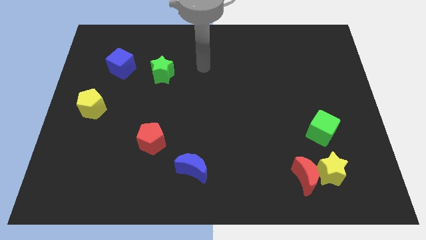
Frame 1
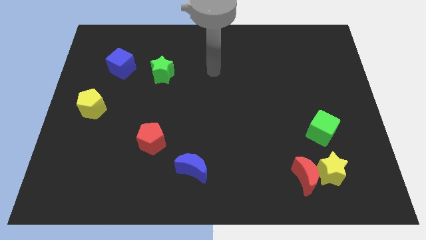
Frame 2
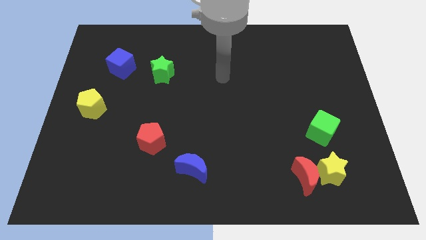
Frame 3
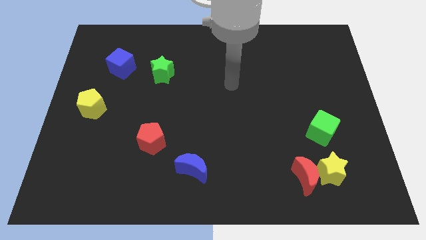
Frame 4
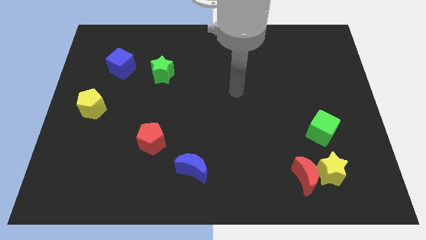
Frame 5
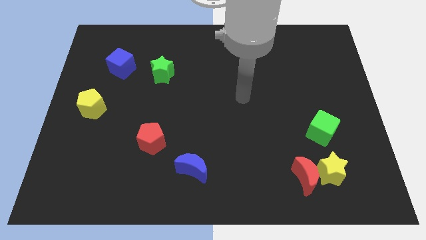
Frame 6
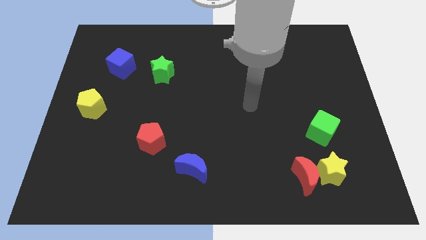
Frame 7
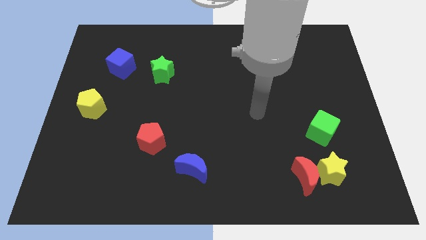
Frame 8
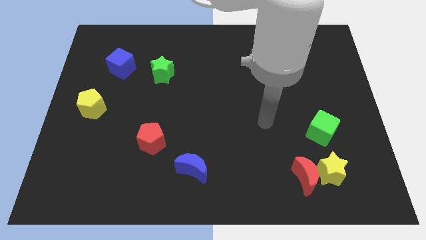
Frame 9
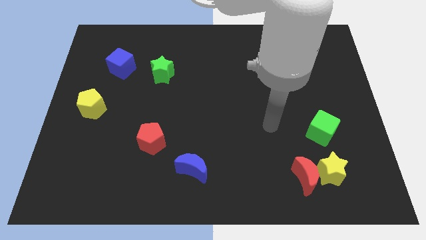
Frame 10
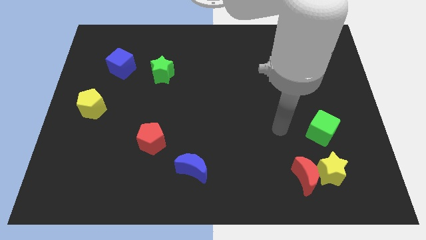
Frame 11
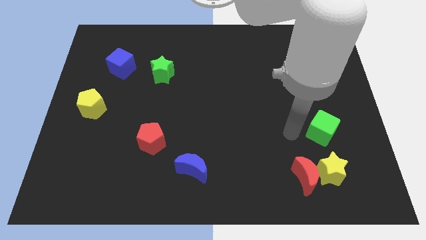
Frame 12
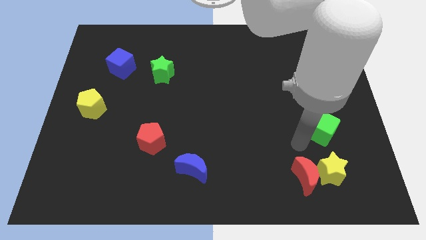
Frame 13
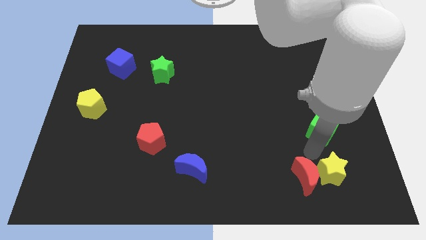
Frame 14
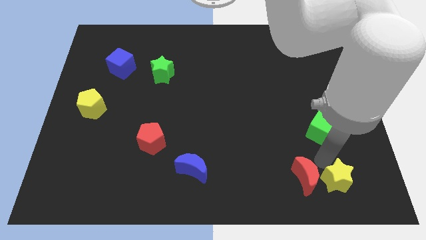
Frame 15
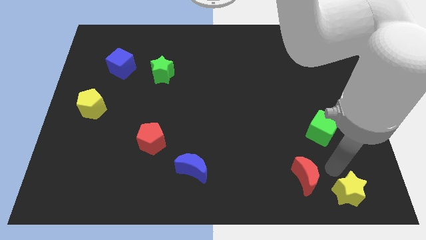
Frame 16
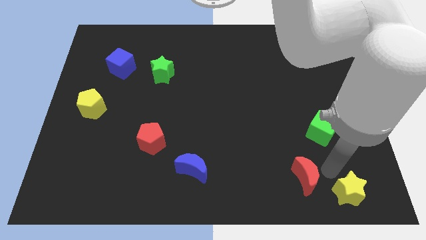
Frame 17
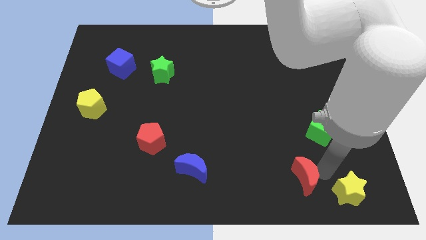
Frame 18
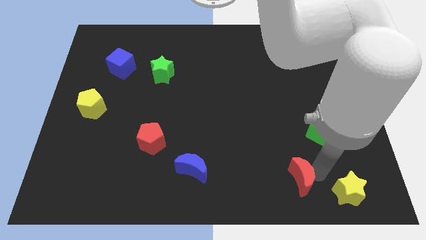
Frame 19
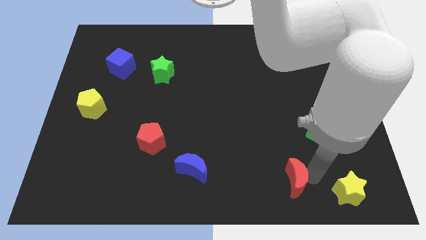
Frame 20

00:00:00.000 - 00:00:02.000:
move the red moon away from the yellow star

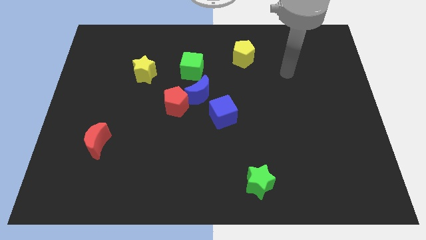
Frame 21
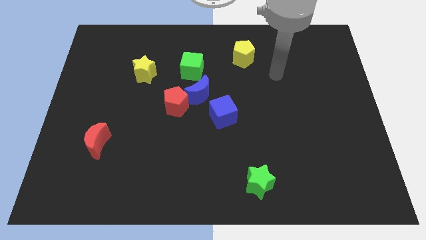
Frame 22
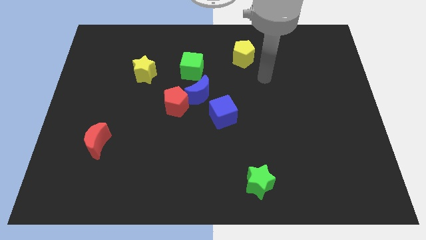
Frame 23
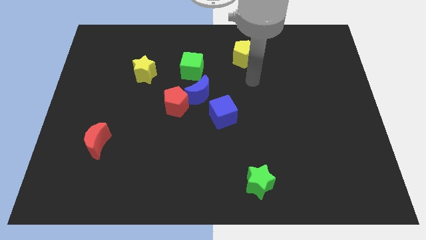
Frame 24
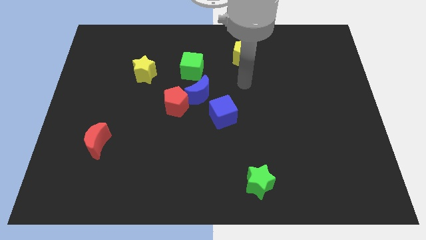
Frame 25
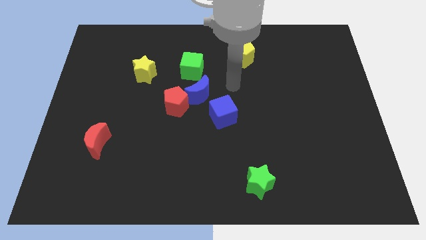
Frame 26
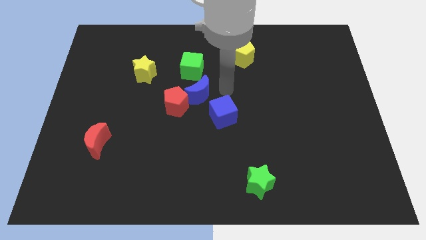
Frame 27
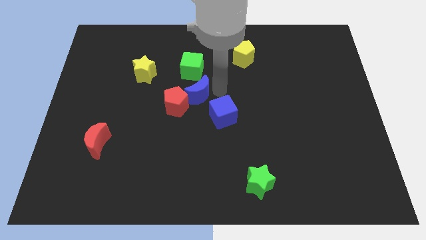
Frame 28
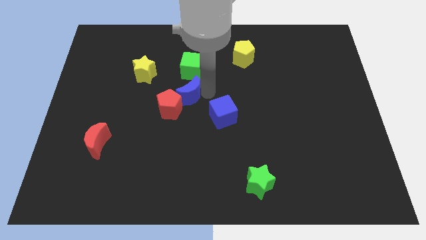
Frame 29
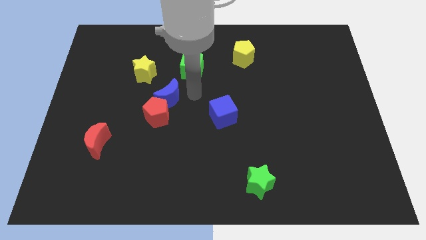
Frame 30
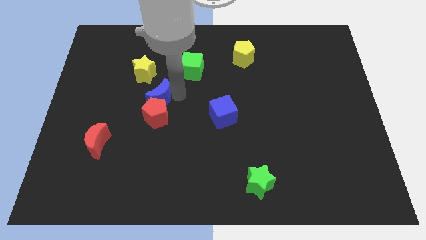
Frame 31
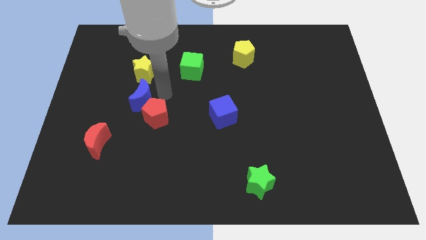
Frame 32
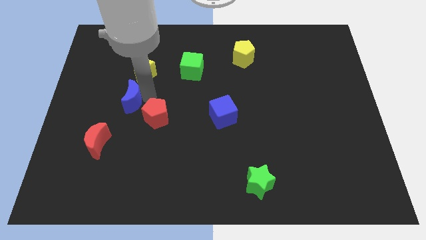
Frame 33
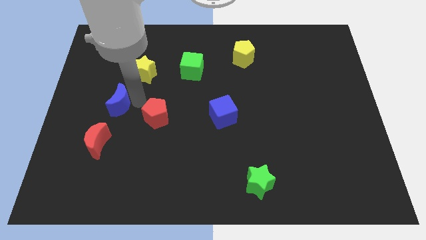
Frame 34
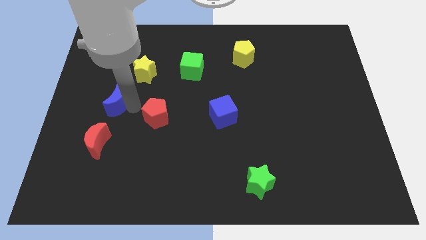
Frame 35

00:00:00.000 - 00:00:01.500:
separate the red pentagon from the blue moon

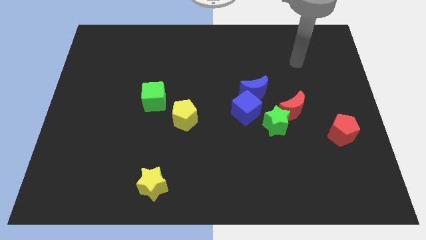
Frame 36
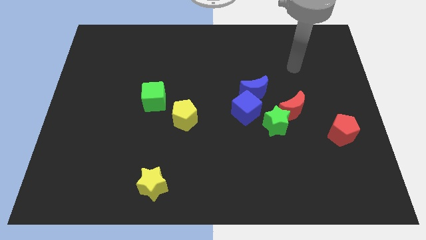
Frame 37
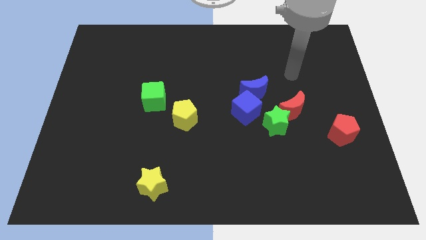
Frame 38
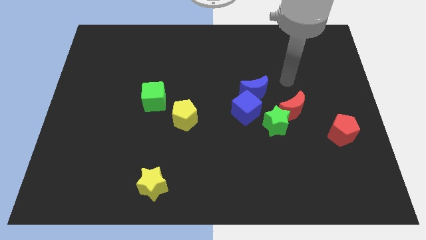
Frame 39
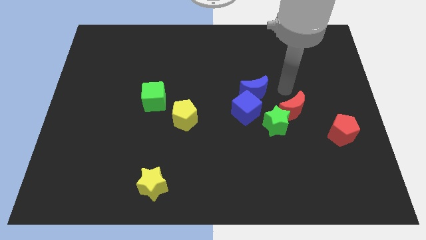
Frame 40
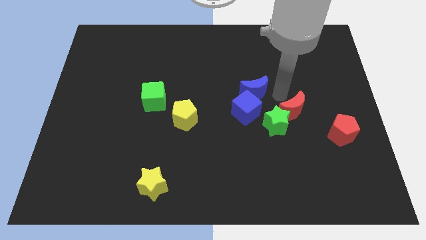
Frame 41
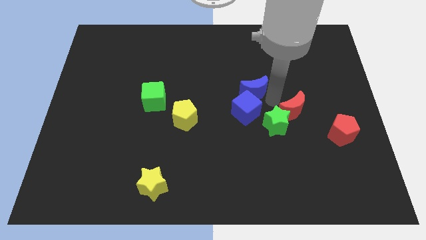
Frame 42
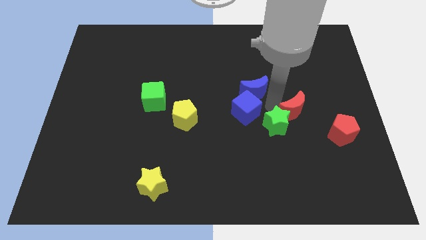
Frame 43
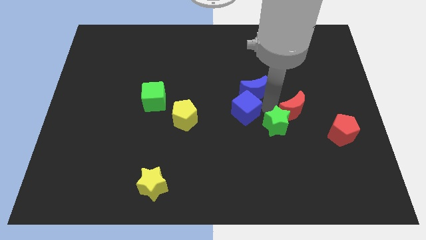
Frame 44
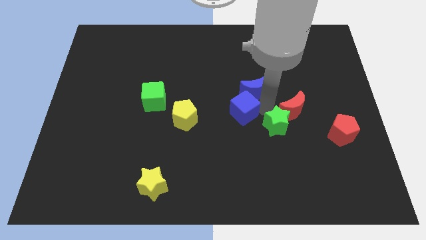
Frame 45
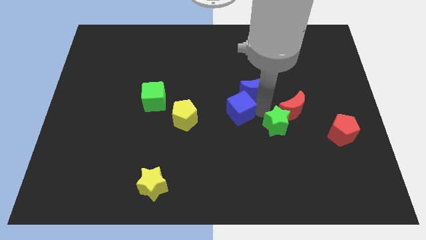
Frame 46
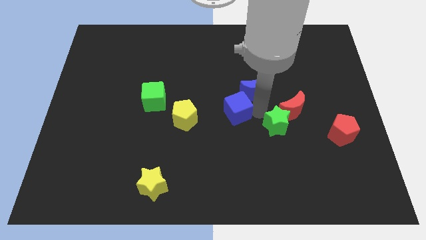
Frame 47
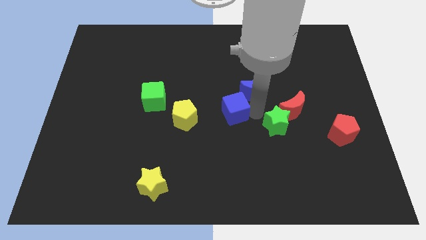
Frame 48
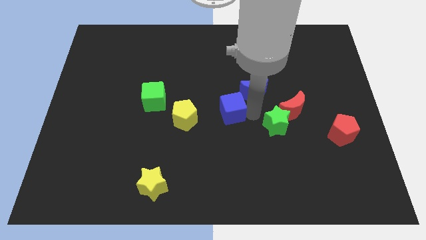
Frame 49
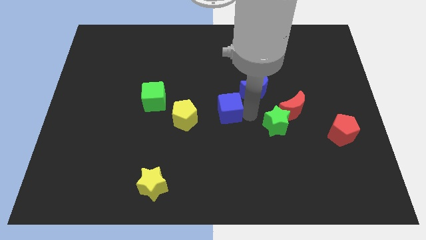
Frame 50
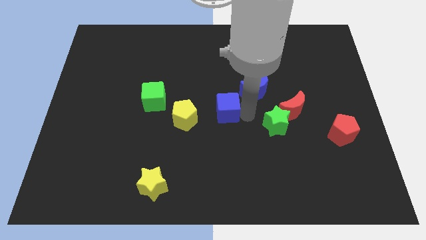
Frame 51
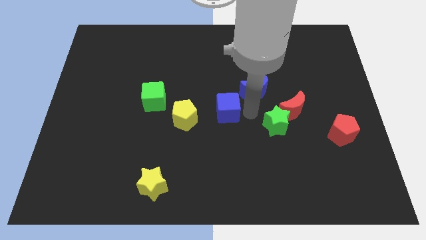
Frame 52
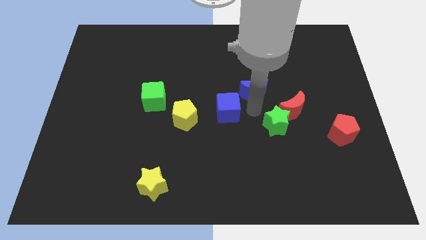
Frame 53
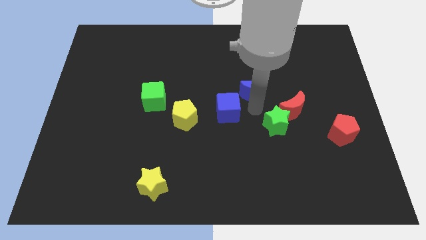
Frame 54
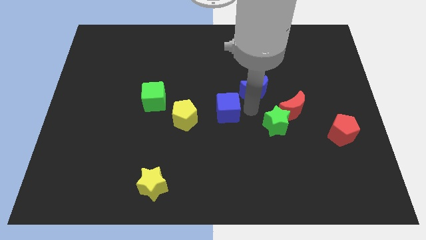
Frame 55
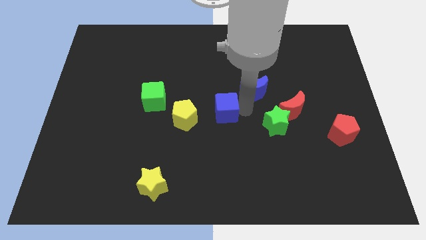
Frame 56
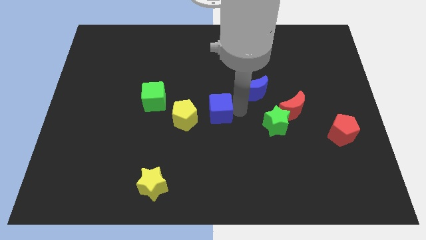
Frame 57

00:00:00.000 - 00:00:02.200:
separate the blue cube from the blue moon and green star

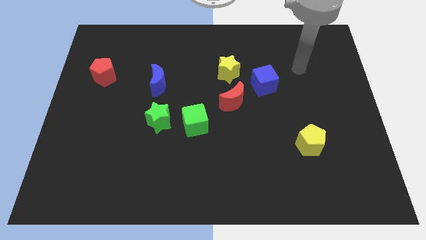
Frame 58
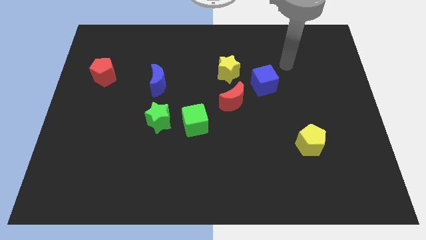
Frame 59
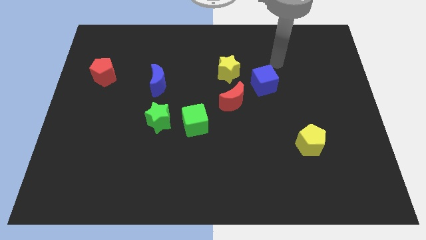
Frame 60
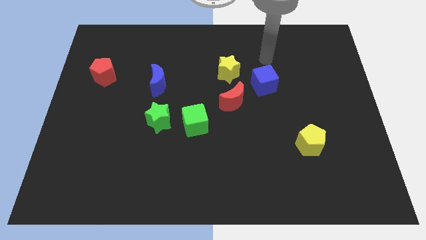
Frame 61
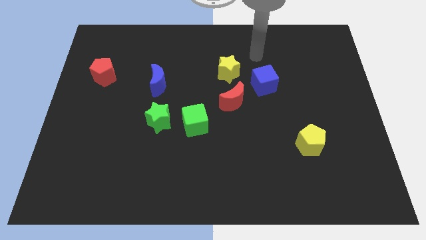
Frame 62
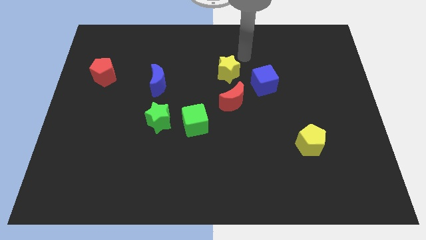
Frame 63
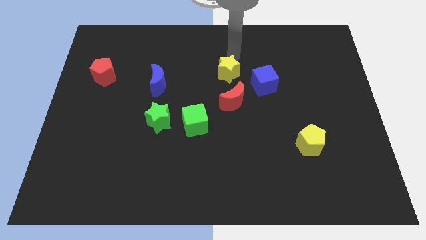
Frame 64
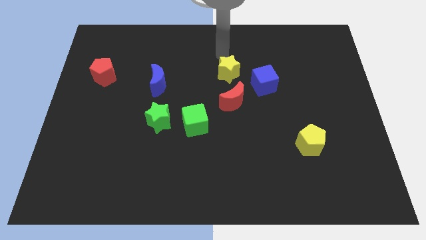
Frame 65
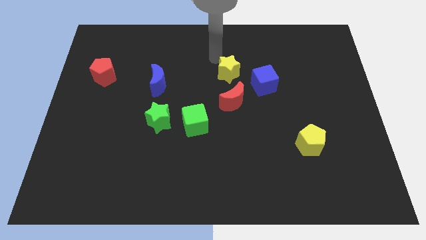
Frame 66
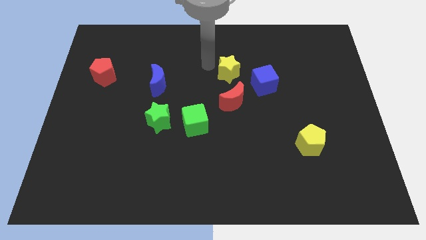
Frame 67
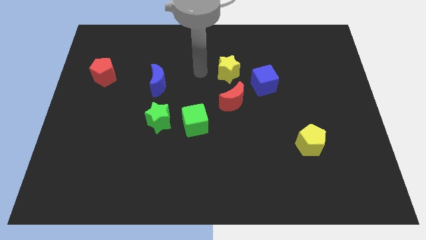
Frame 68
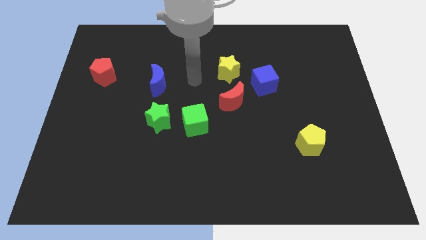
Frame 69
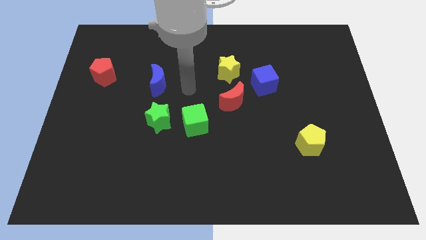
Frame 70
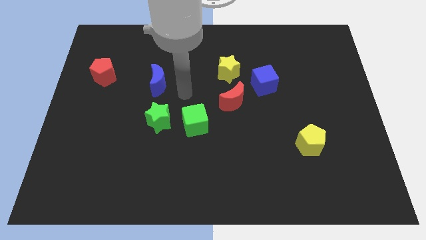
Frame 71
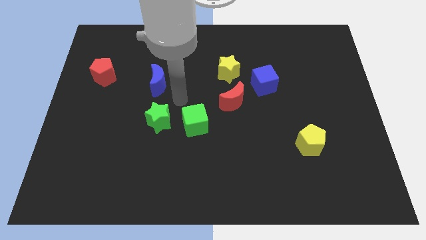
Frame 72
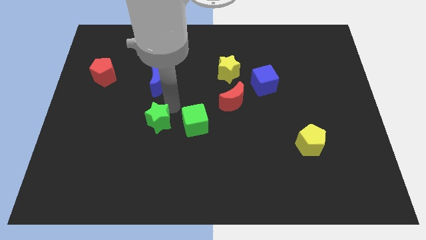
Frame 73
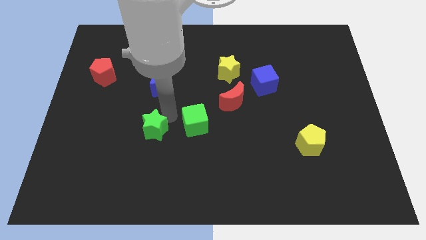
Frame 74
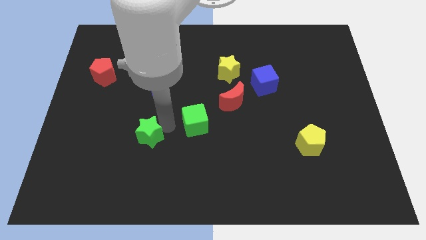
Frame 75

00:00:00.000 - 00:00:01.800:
separate the green cube from the green star

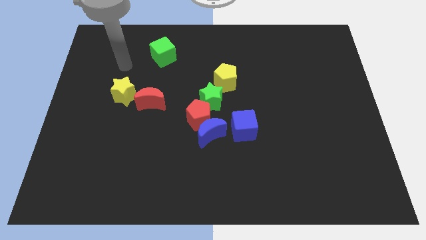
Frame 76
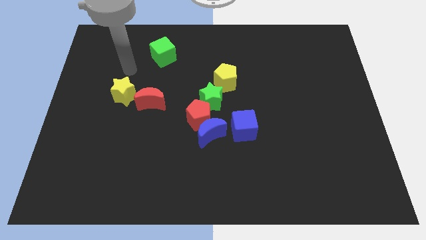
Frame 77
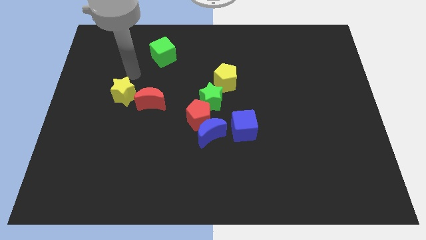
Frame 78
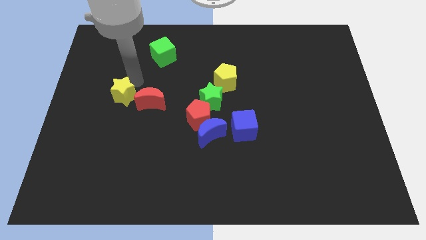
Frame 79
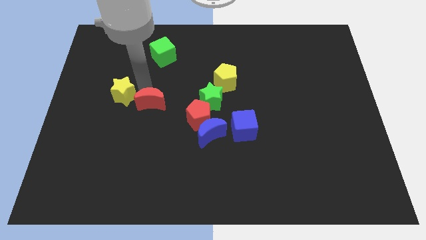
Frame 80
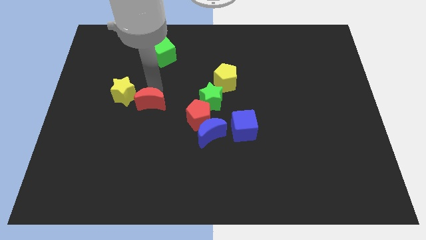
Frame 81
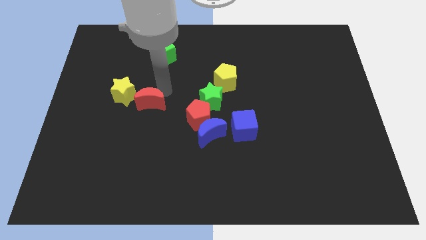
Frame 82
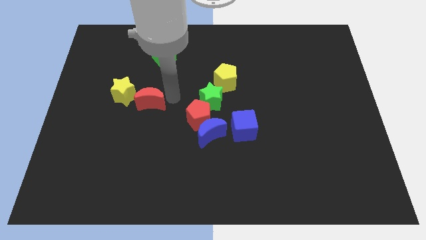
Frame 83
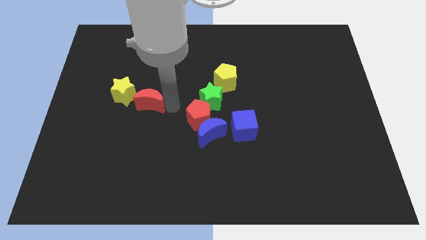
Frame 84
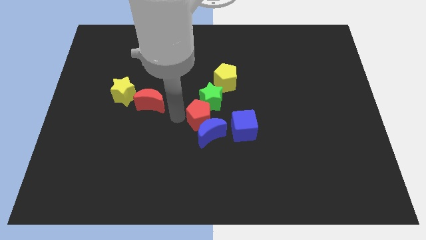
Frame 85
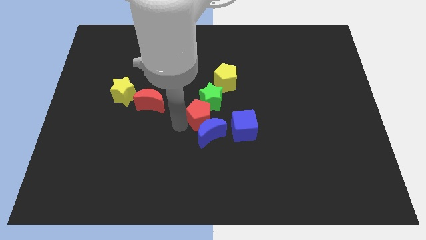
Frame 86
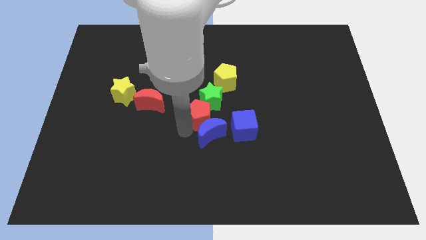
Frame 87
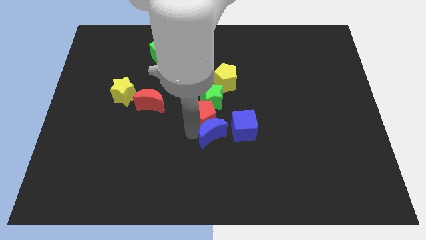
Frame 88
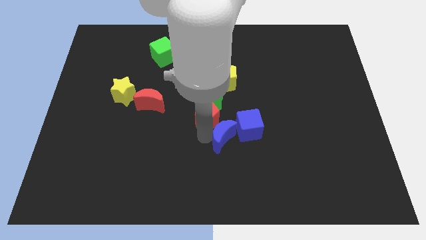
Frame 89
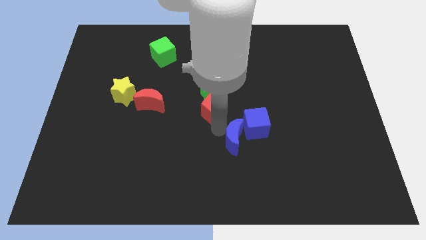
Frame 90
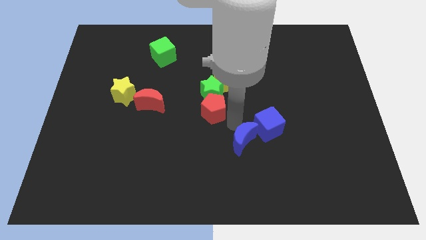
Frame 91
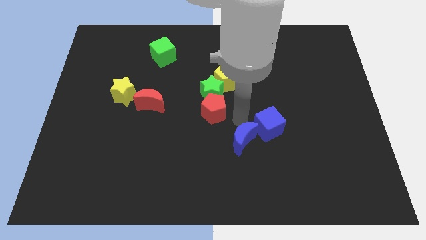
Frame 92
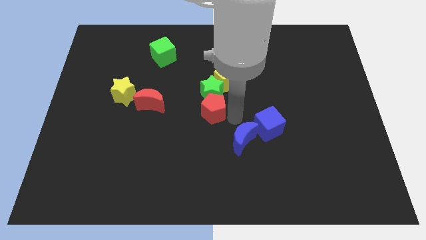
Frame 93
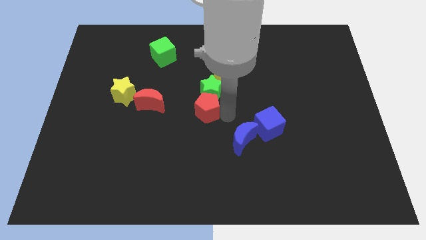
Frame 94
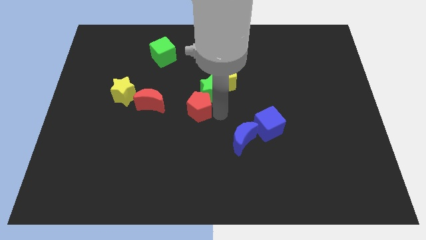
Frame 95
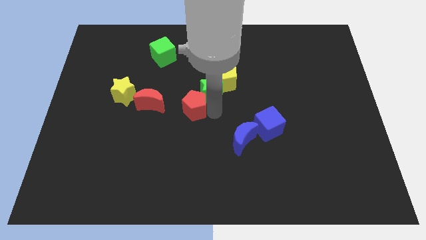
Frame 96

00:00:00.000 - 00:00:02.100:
move the red pentagon away from the blue moon, green star, and blue cube
